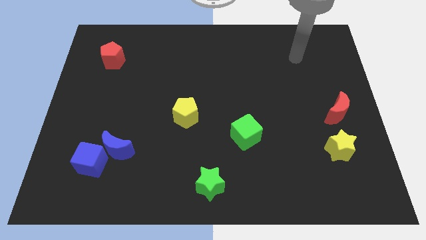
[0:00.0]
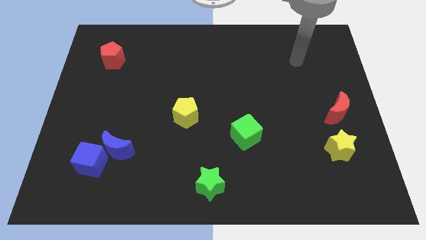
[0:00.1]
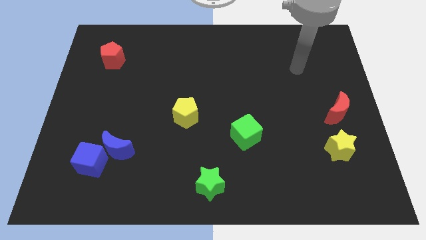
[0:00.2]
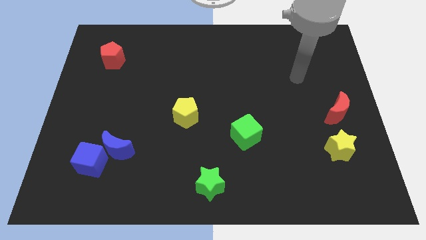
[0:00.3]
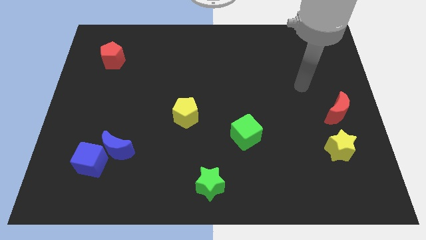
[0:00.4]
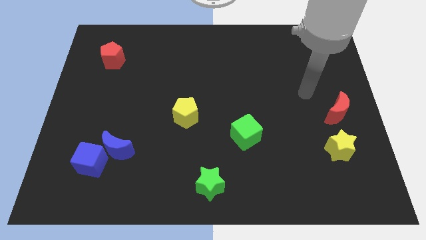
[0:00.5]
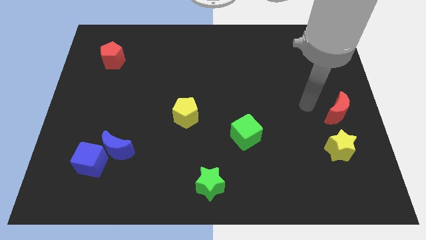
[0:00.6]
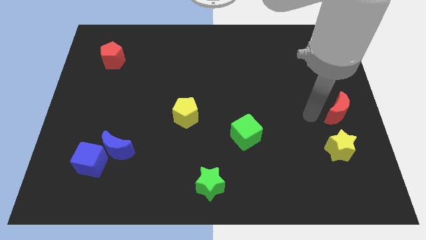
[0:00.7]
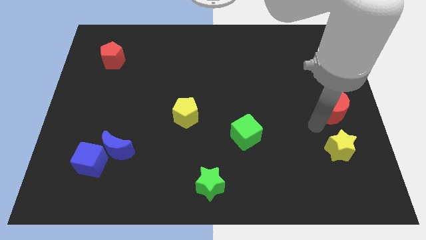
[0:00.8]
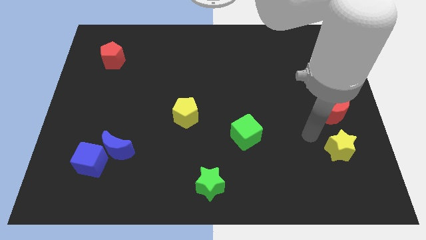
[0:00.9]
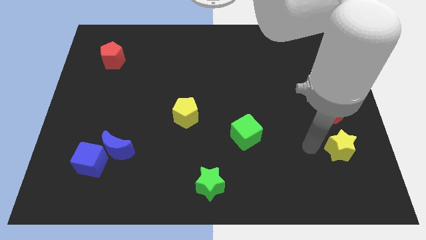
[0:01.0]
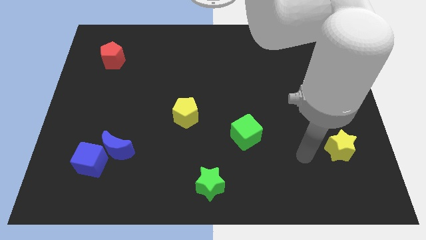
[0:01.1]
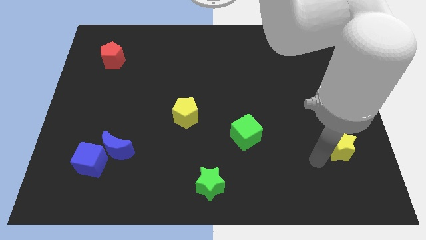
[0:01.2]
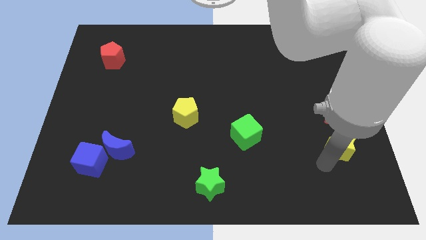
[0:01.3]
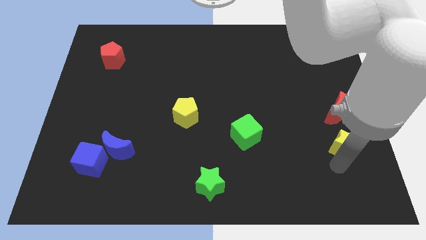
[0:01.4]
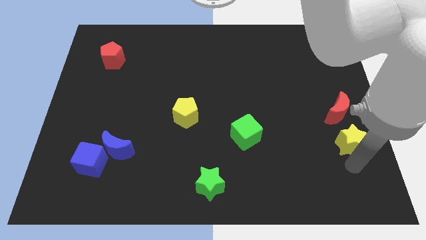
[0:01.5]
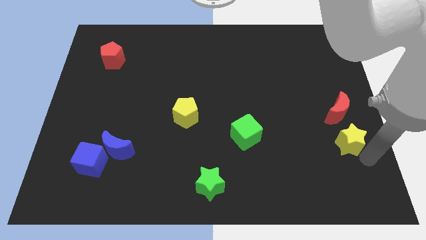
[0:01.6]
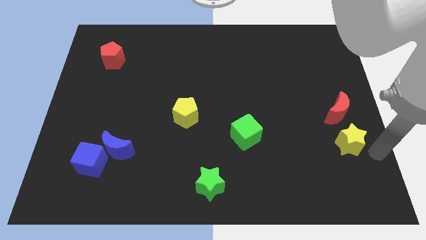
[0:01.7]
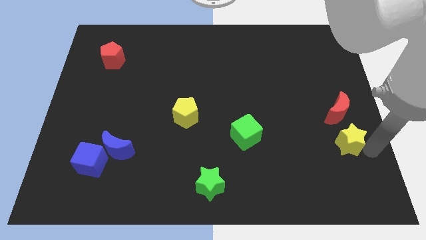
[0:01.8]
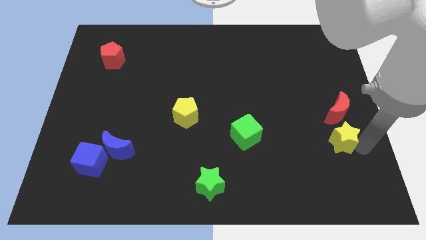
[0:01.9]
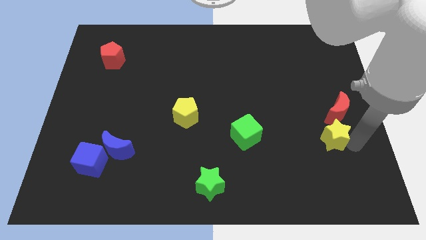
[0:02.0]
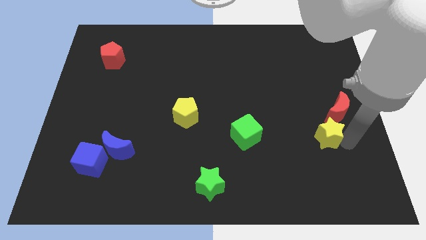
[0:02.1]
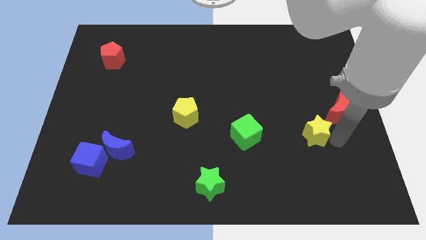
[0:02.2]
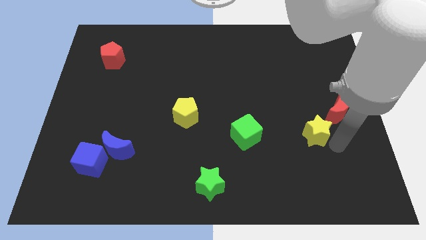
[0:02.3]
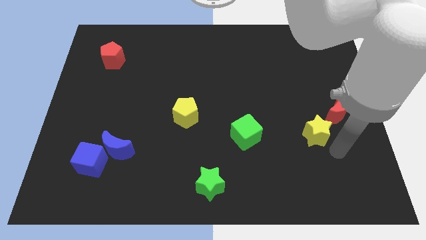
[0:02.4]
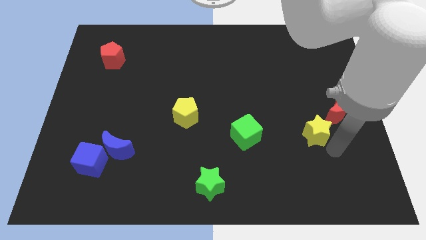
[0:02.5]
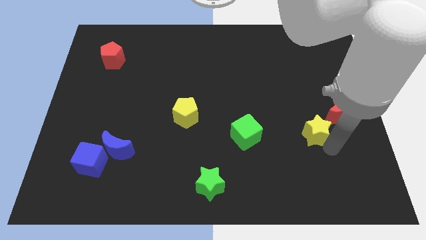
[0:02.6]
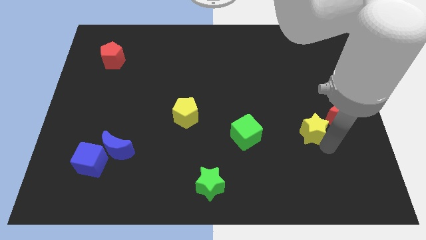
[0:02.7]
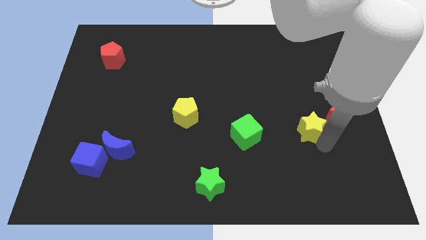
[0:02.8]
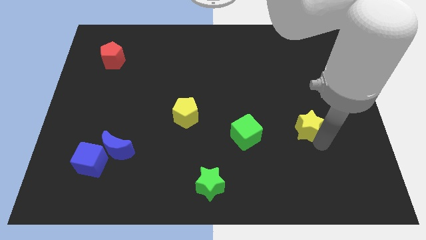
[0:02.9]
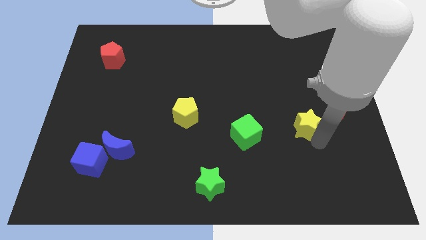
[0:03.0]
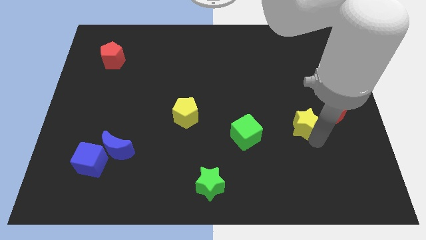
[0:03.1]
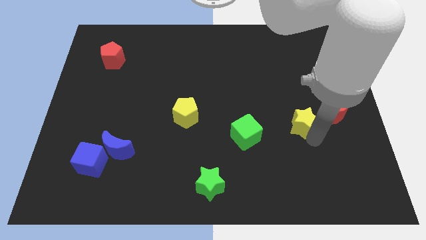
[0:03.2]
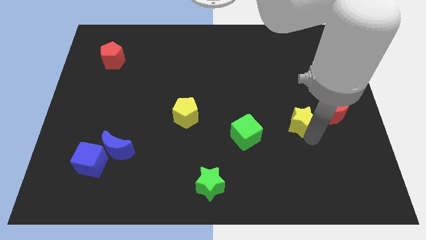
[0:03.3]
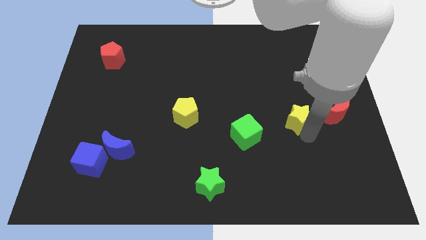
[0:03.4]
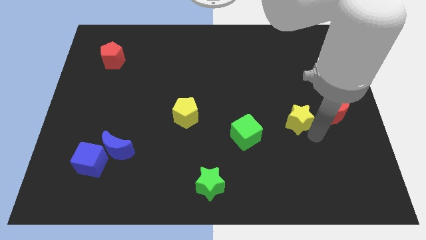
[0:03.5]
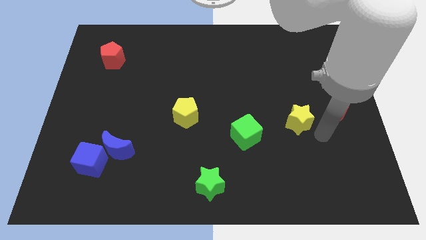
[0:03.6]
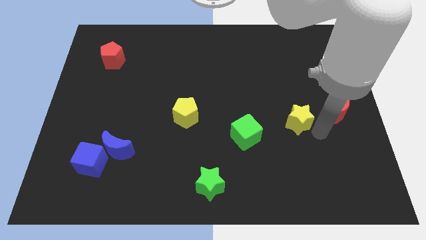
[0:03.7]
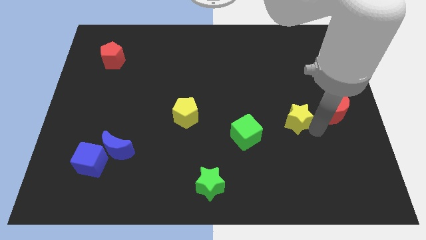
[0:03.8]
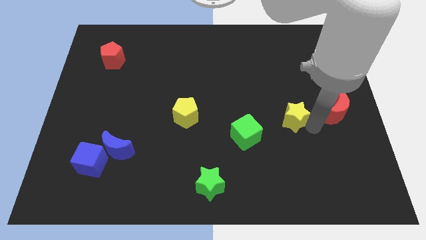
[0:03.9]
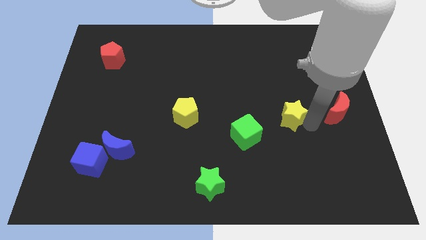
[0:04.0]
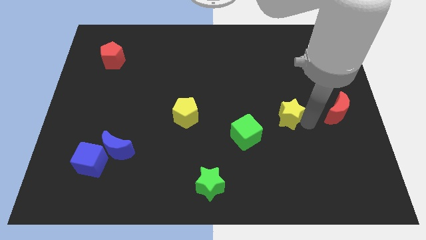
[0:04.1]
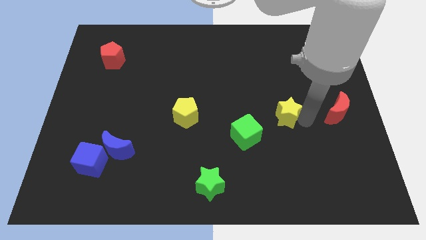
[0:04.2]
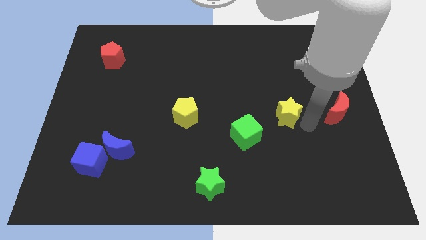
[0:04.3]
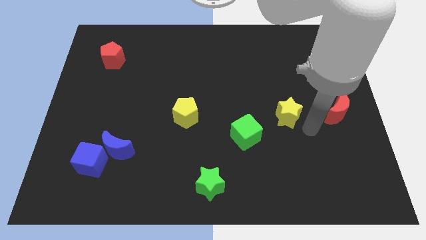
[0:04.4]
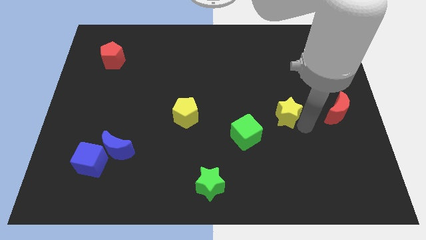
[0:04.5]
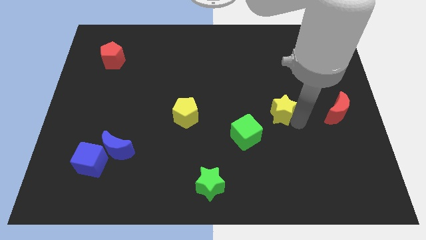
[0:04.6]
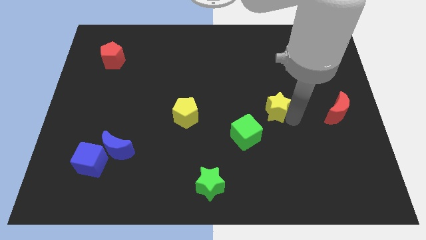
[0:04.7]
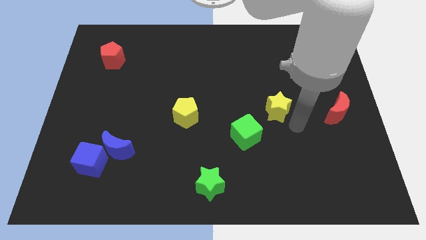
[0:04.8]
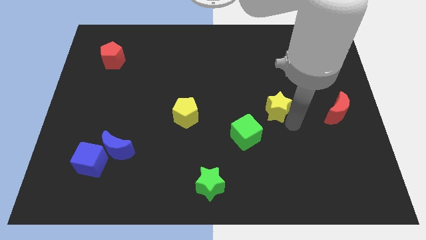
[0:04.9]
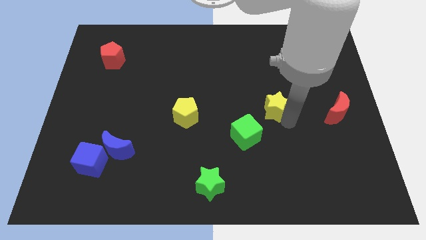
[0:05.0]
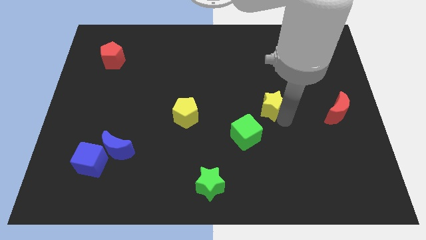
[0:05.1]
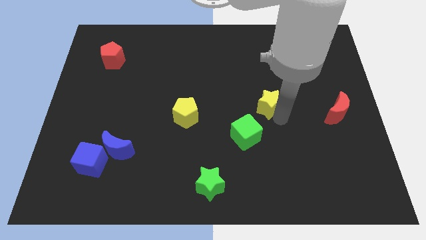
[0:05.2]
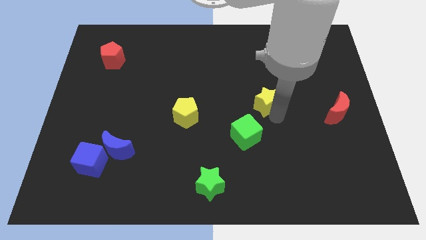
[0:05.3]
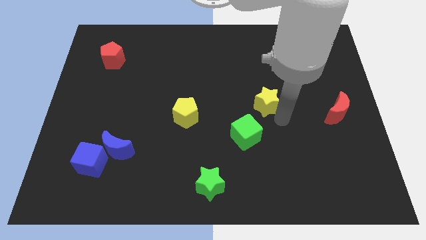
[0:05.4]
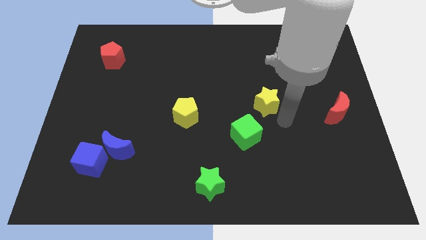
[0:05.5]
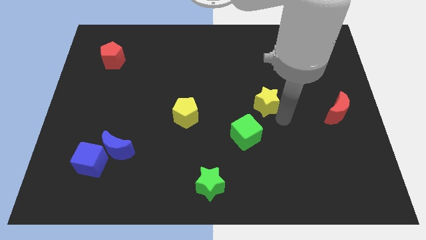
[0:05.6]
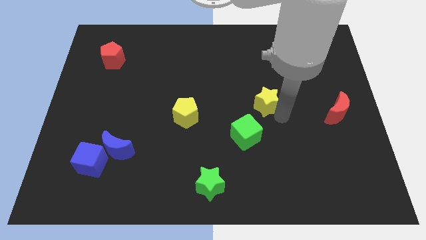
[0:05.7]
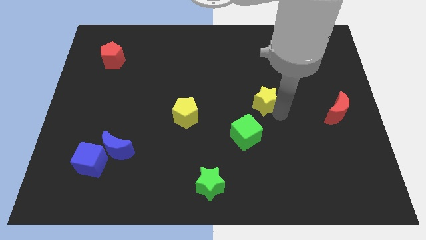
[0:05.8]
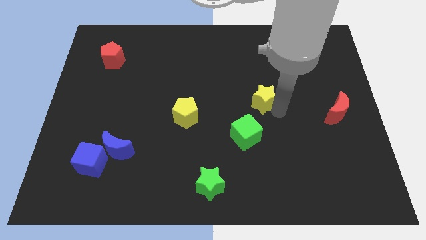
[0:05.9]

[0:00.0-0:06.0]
slide the yellow star diagonally upwards and to the left

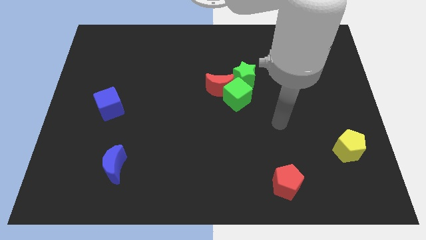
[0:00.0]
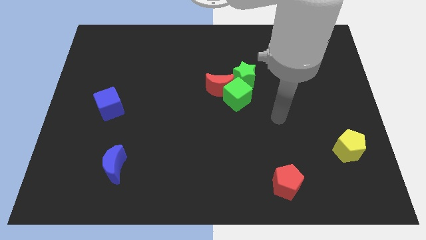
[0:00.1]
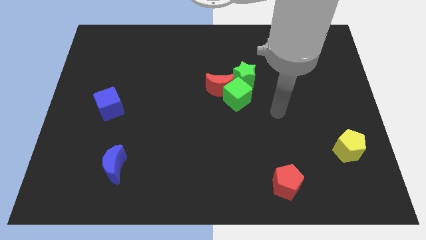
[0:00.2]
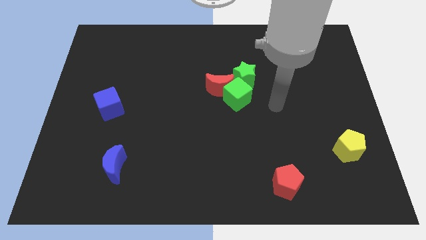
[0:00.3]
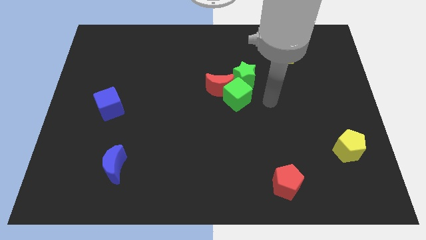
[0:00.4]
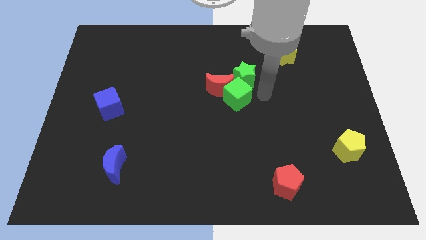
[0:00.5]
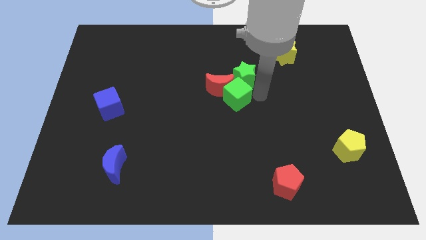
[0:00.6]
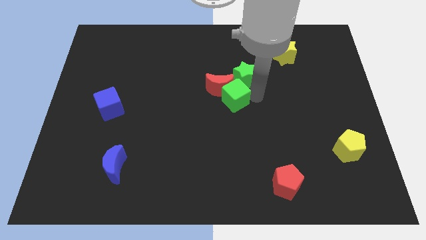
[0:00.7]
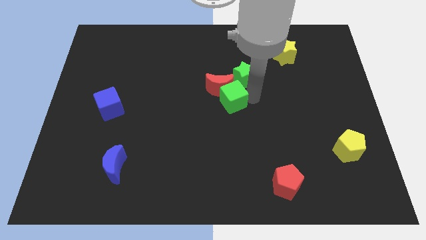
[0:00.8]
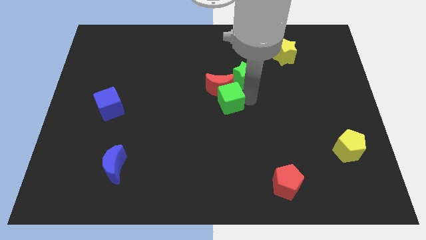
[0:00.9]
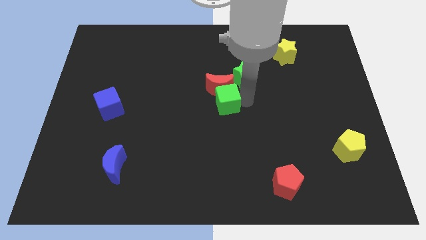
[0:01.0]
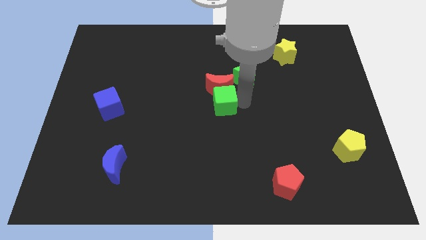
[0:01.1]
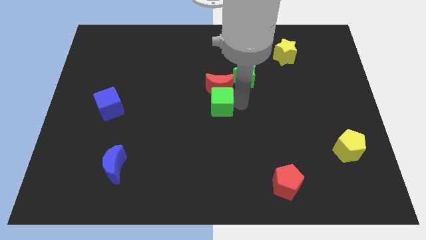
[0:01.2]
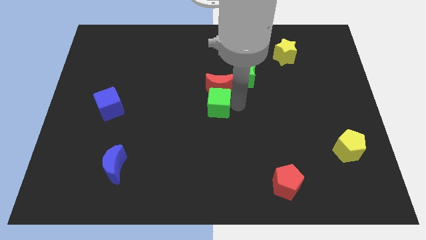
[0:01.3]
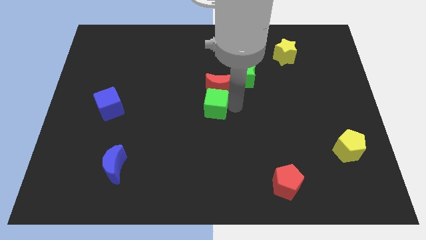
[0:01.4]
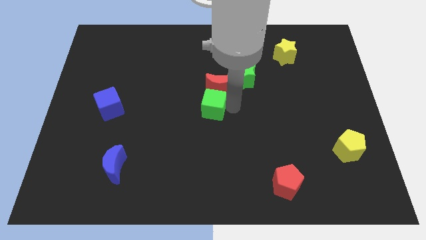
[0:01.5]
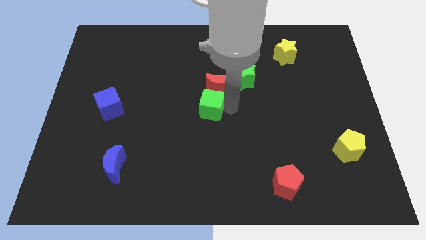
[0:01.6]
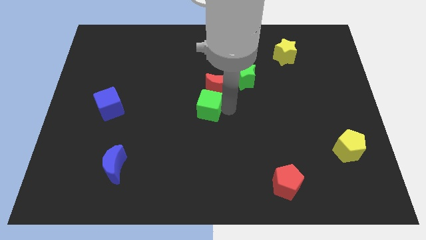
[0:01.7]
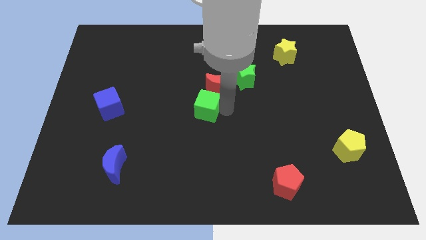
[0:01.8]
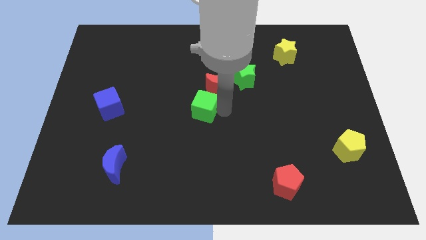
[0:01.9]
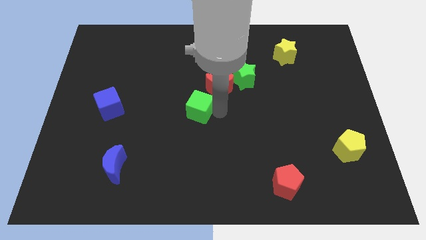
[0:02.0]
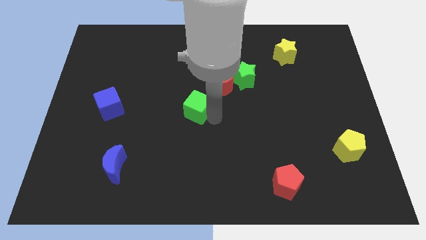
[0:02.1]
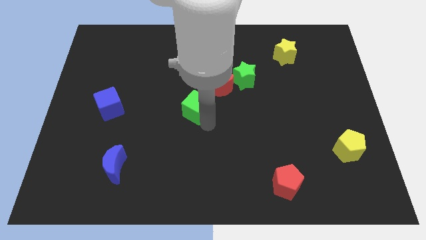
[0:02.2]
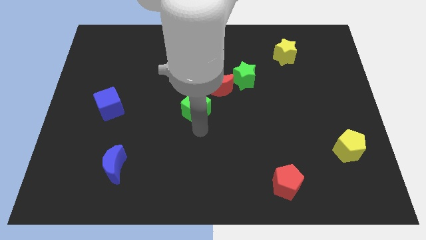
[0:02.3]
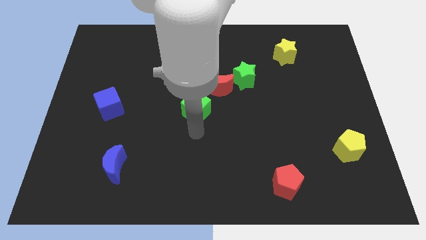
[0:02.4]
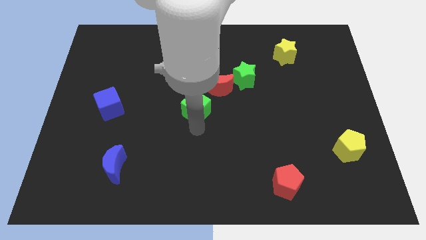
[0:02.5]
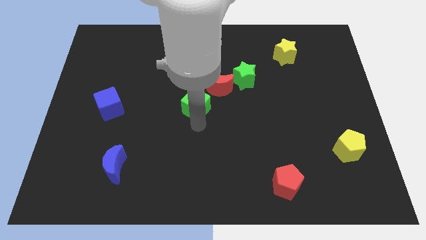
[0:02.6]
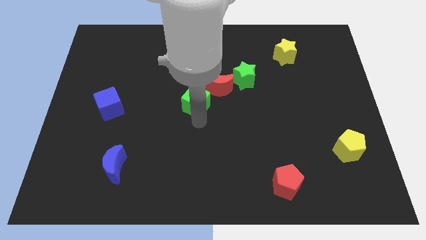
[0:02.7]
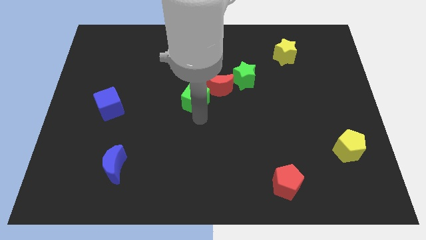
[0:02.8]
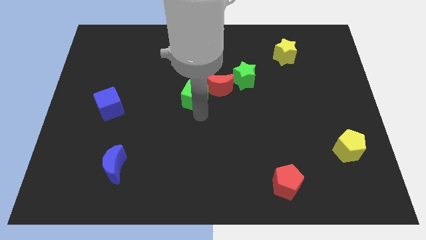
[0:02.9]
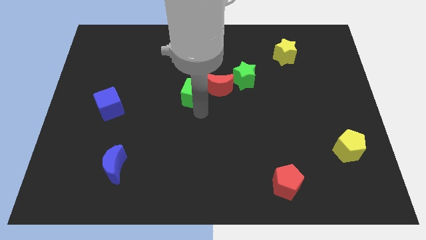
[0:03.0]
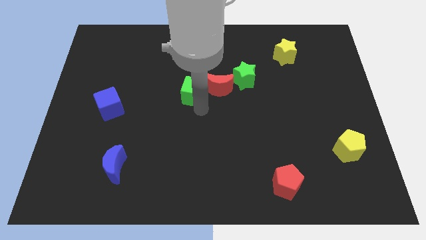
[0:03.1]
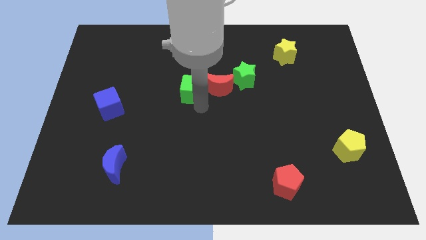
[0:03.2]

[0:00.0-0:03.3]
slightly push the green cube upwards and left diagonally
